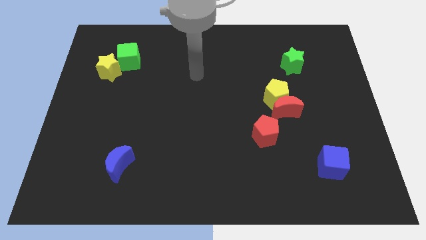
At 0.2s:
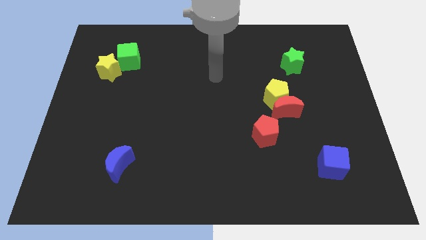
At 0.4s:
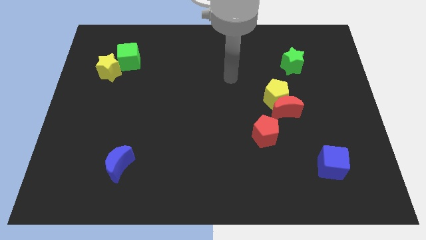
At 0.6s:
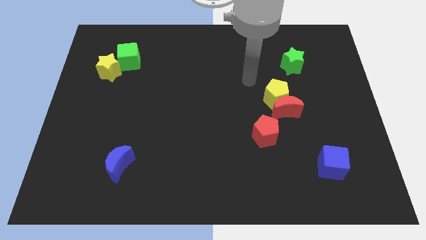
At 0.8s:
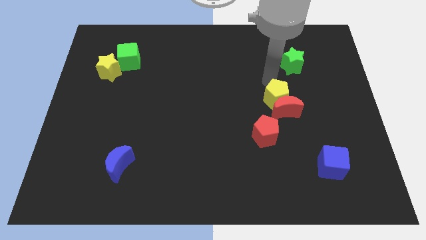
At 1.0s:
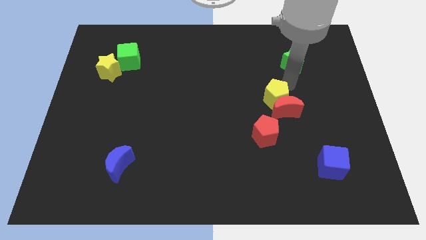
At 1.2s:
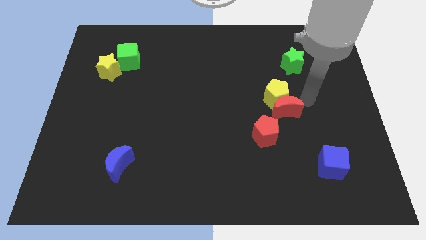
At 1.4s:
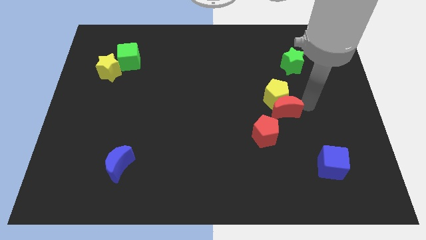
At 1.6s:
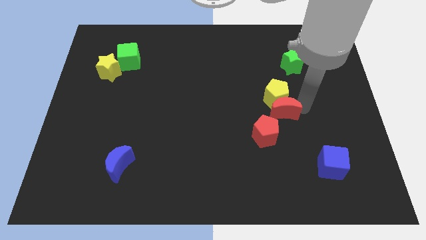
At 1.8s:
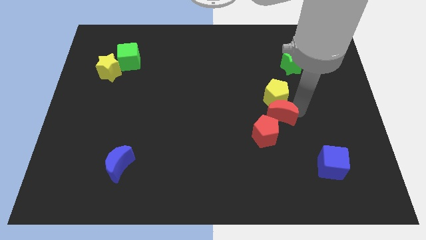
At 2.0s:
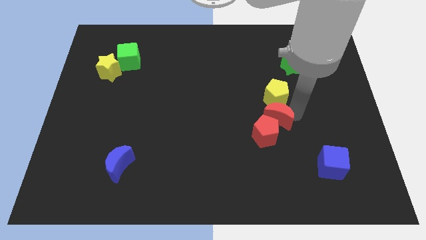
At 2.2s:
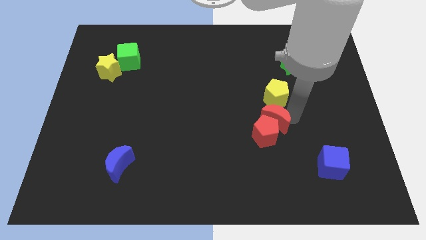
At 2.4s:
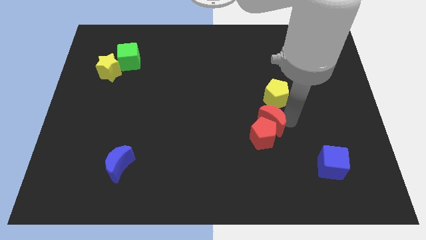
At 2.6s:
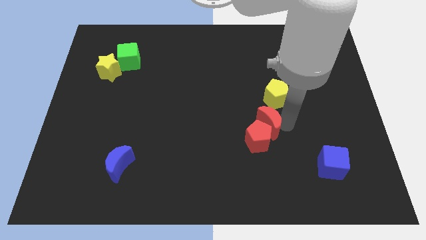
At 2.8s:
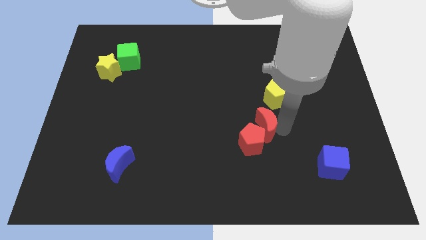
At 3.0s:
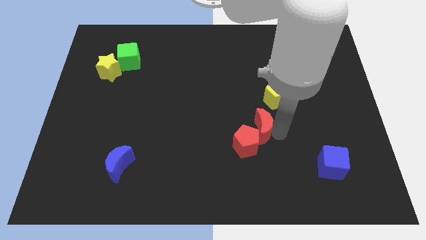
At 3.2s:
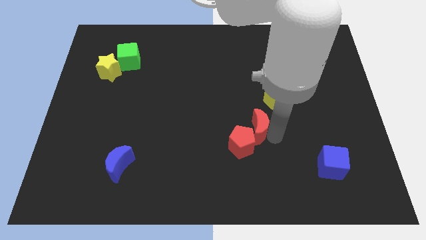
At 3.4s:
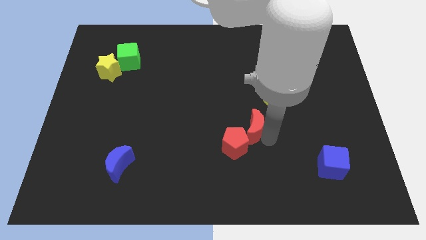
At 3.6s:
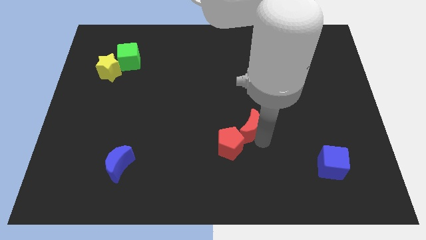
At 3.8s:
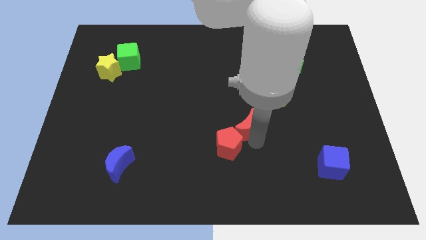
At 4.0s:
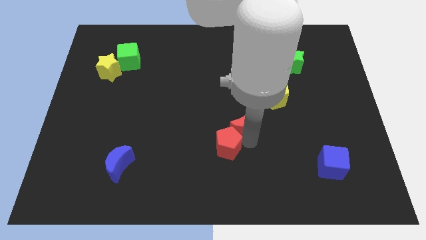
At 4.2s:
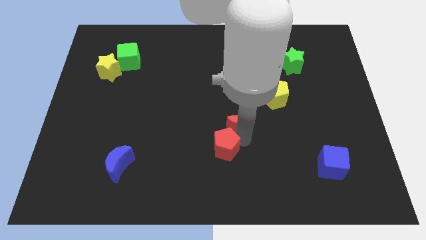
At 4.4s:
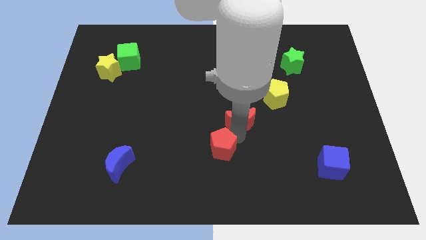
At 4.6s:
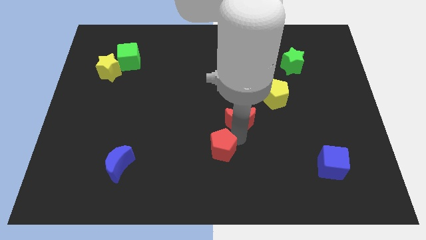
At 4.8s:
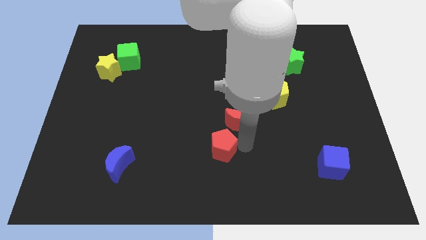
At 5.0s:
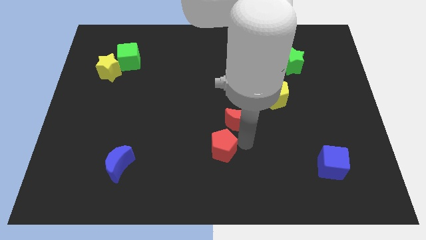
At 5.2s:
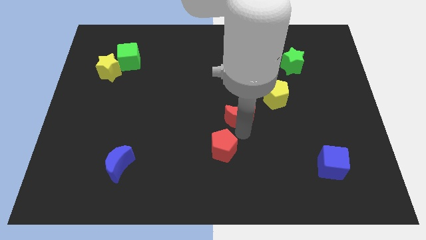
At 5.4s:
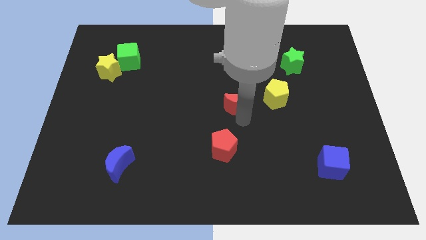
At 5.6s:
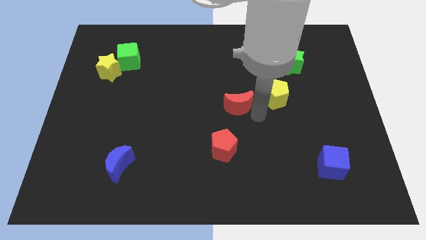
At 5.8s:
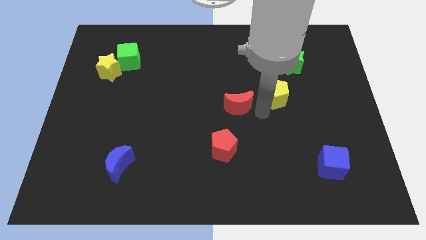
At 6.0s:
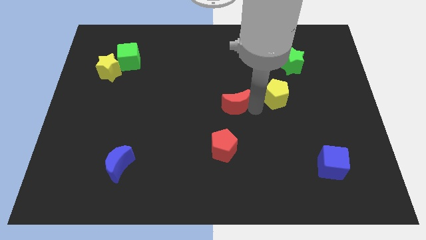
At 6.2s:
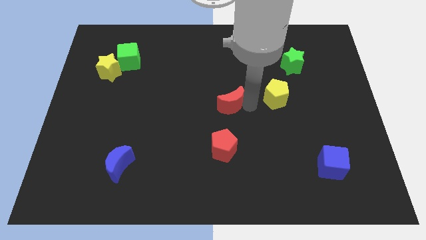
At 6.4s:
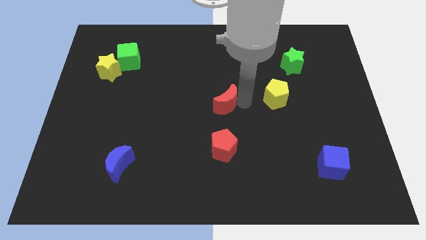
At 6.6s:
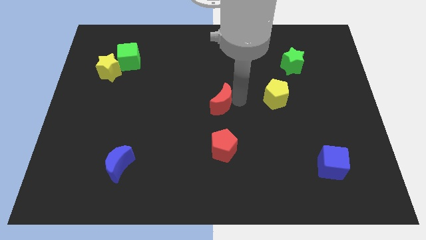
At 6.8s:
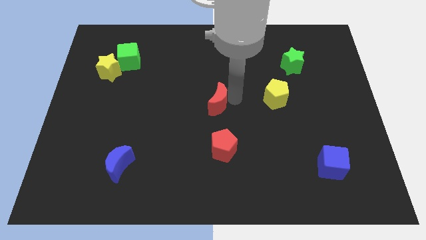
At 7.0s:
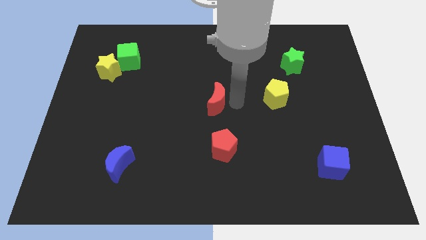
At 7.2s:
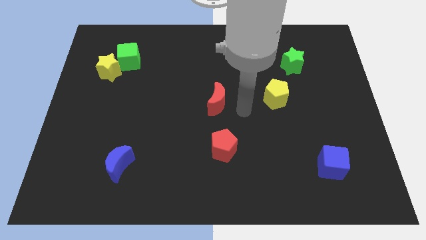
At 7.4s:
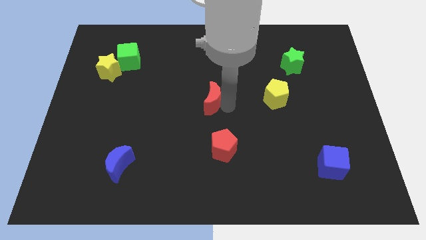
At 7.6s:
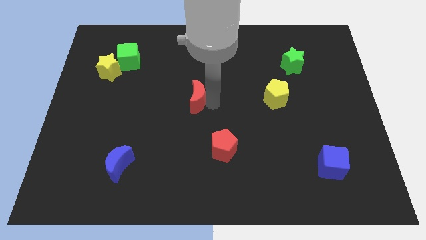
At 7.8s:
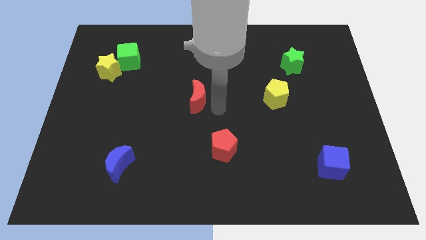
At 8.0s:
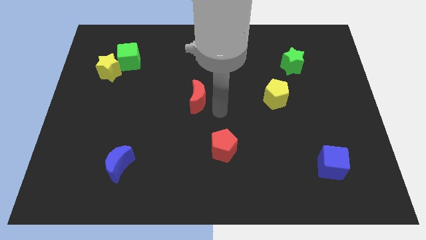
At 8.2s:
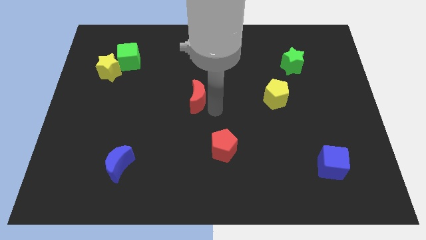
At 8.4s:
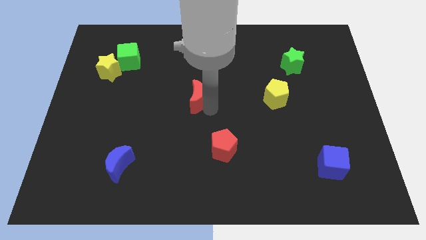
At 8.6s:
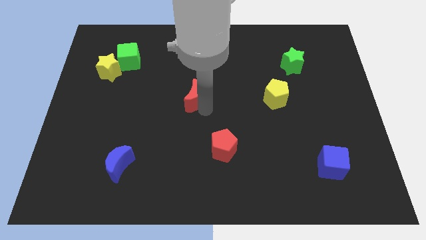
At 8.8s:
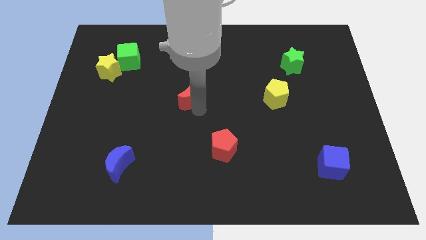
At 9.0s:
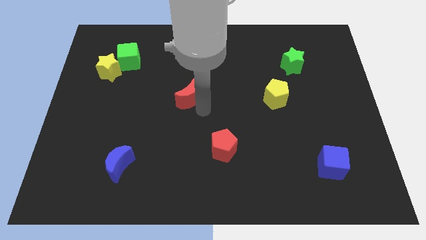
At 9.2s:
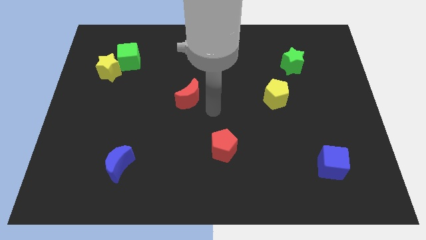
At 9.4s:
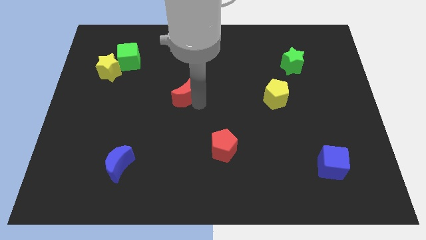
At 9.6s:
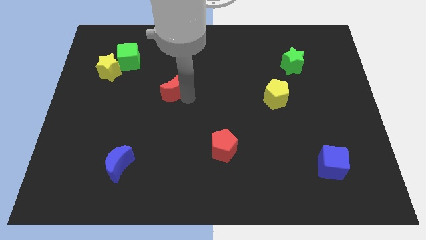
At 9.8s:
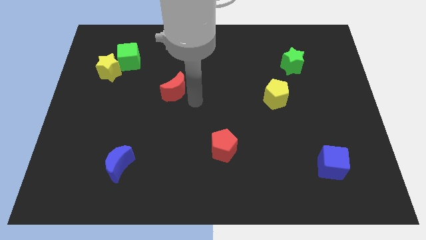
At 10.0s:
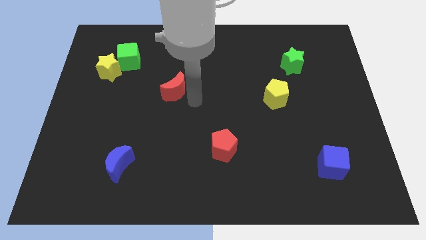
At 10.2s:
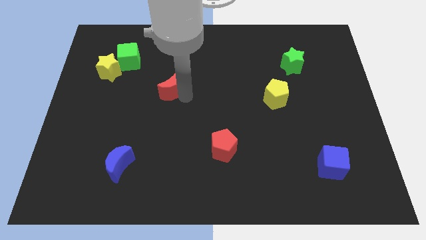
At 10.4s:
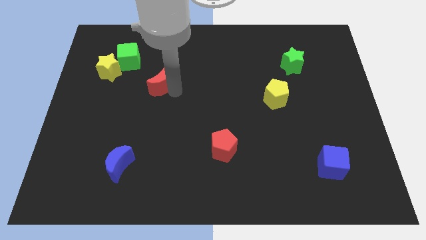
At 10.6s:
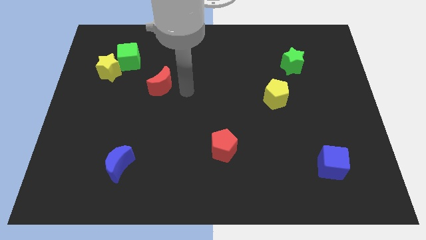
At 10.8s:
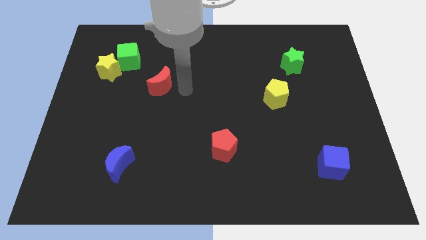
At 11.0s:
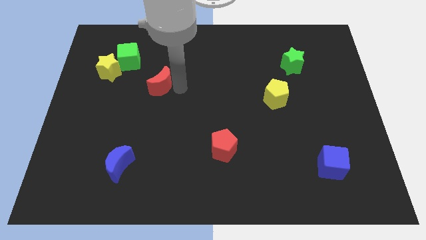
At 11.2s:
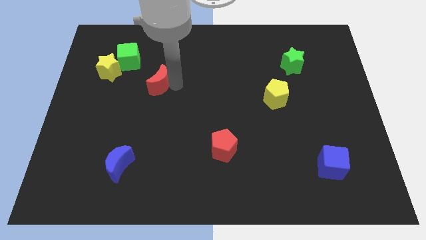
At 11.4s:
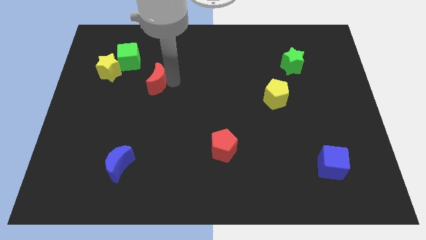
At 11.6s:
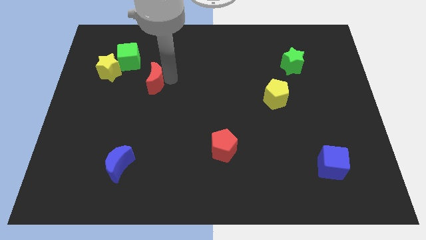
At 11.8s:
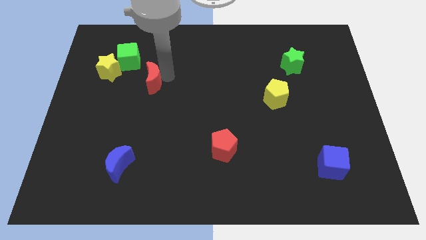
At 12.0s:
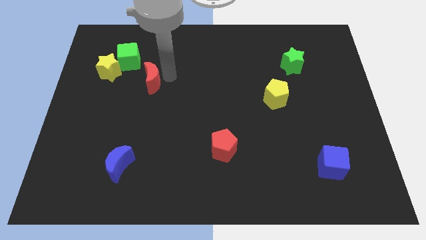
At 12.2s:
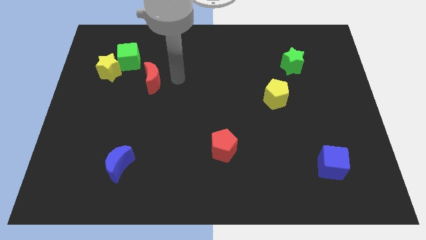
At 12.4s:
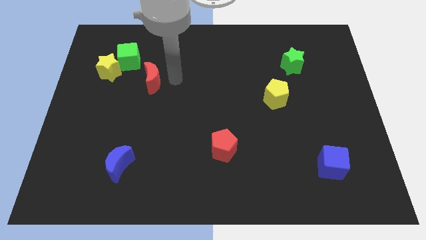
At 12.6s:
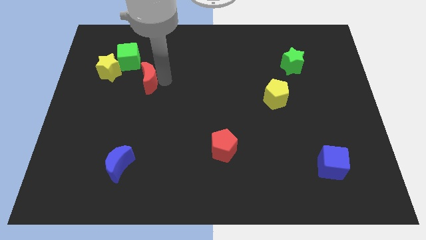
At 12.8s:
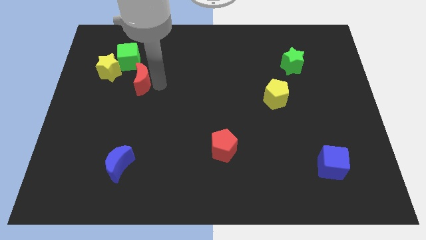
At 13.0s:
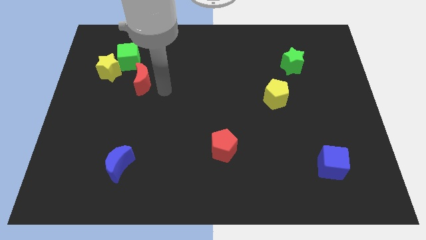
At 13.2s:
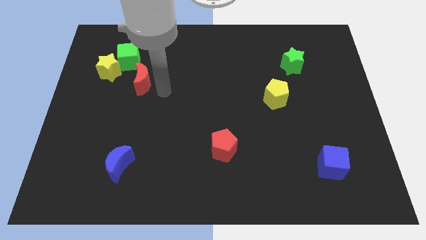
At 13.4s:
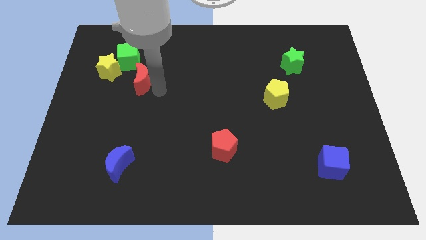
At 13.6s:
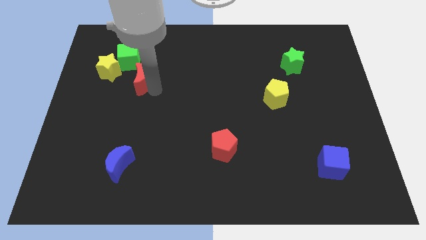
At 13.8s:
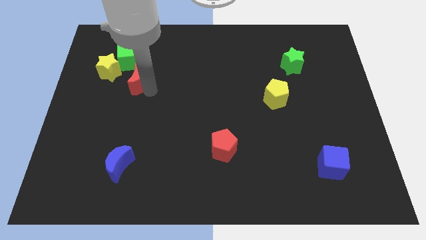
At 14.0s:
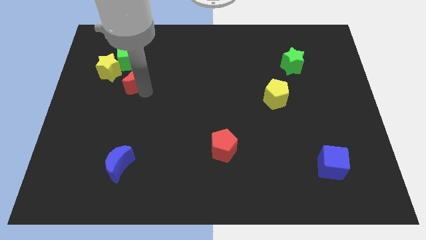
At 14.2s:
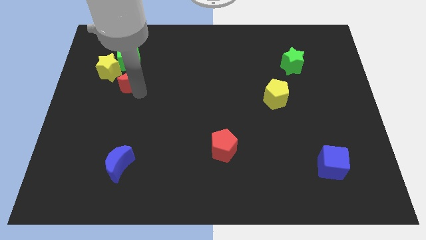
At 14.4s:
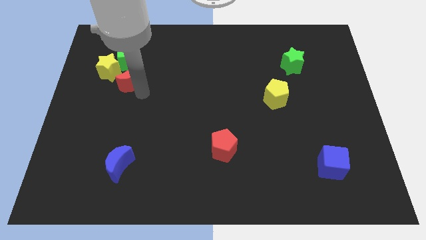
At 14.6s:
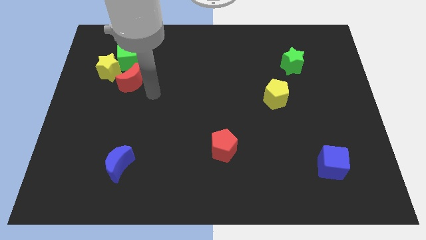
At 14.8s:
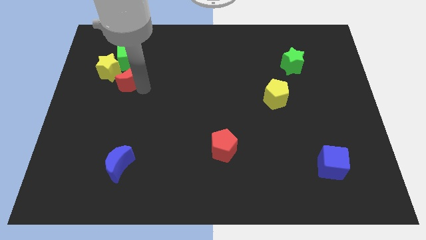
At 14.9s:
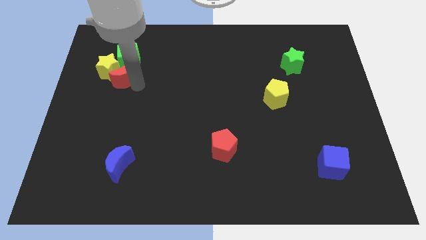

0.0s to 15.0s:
move the red moon to the yellow star
